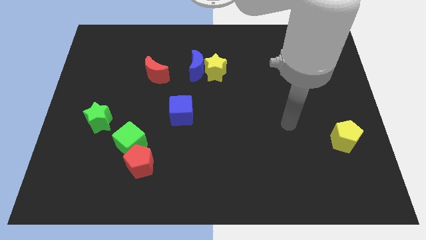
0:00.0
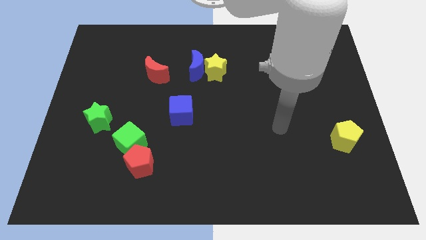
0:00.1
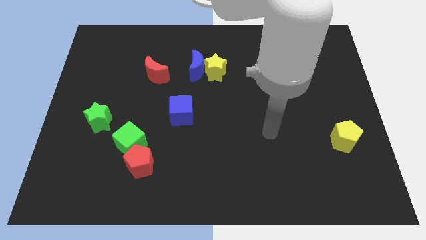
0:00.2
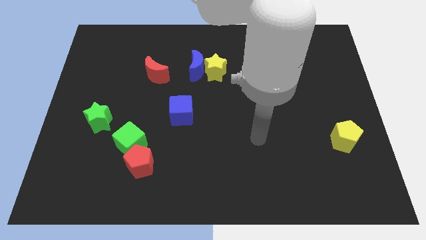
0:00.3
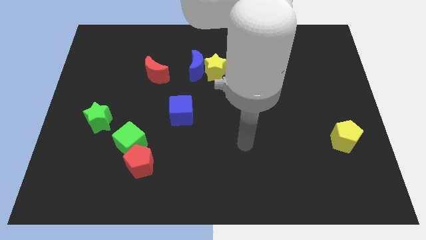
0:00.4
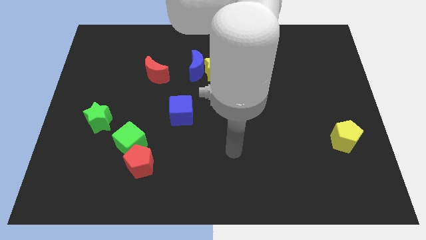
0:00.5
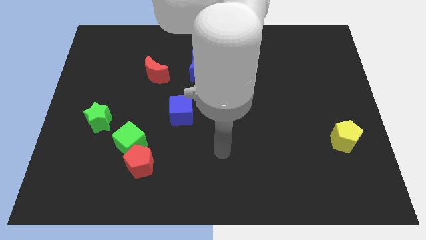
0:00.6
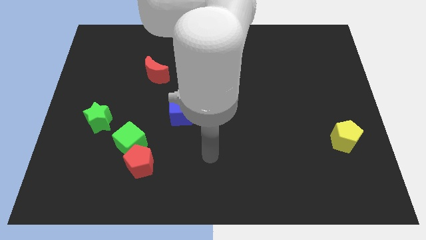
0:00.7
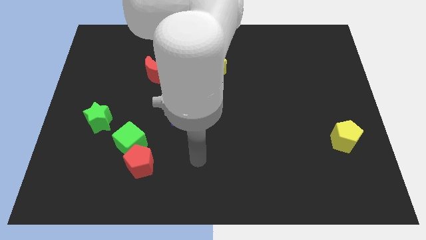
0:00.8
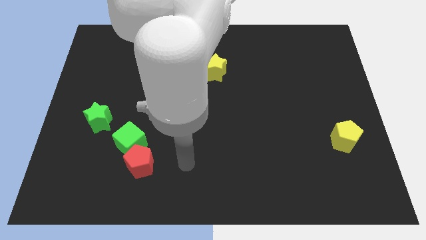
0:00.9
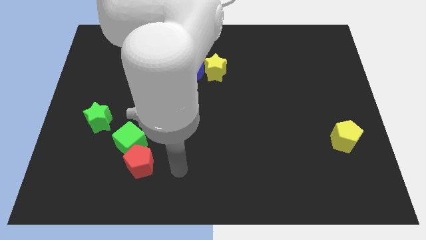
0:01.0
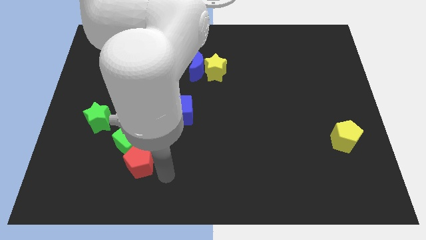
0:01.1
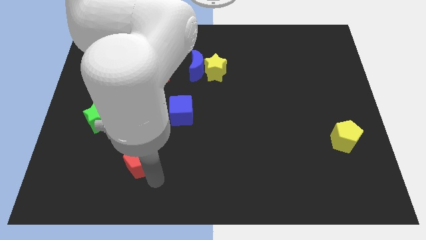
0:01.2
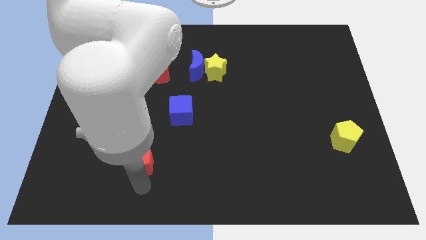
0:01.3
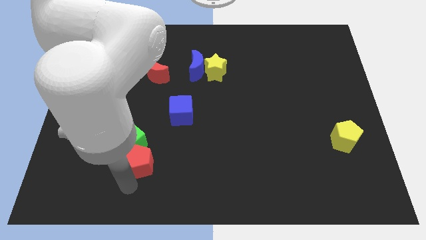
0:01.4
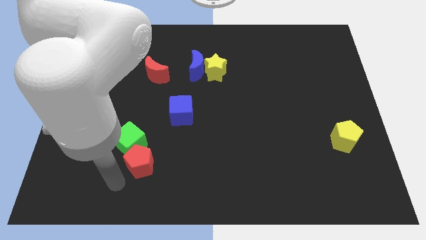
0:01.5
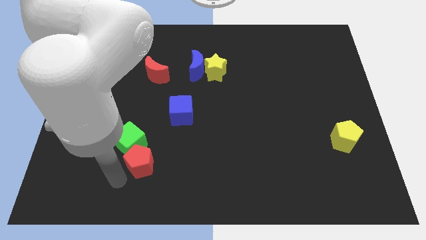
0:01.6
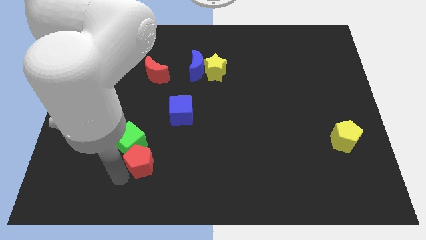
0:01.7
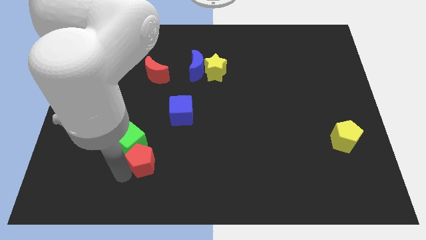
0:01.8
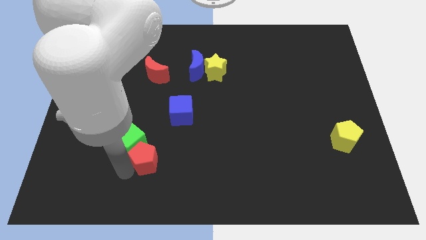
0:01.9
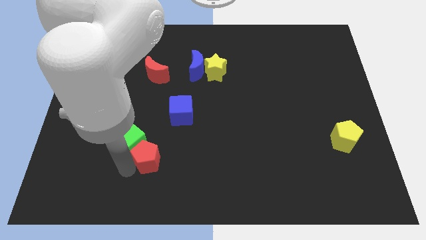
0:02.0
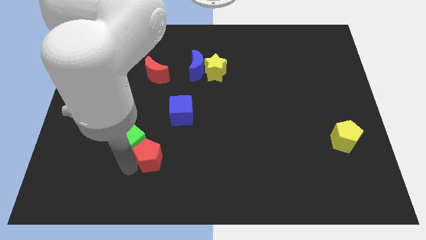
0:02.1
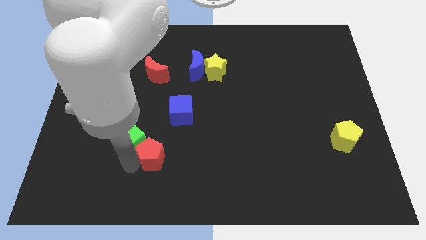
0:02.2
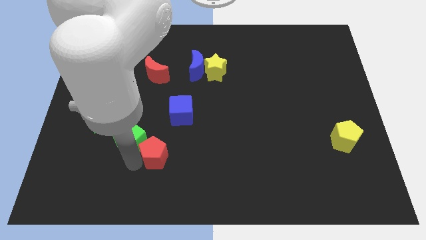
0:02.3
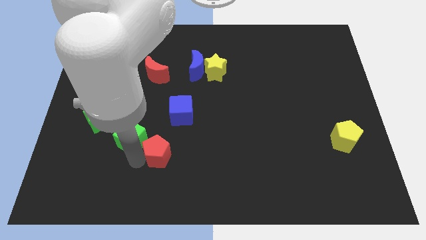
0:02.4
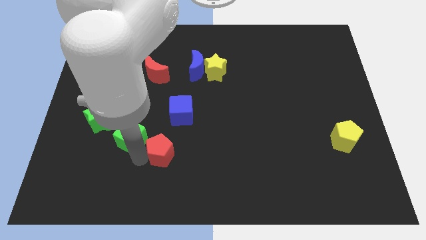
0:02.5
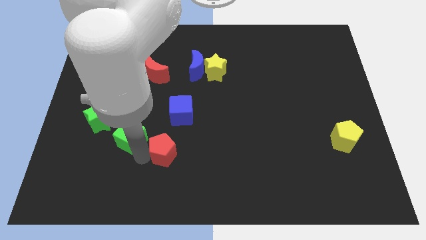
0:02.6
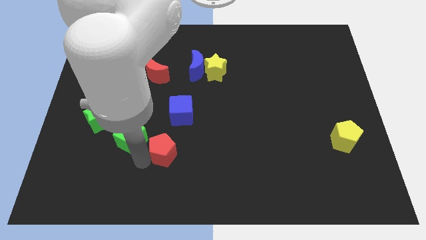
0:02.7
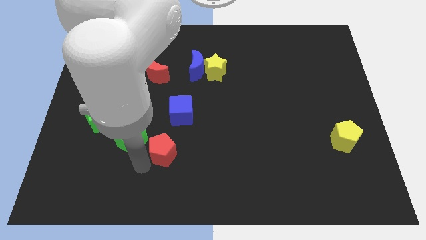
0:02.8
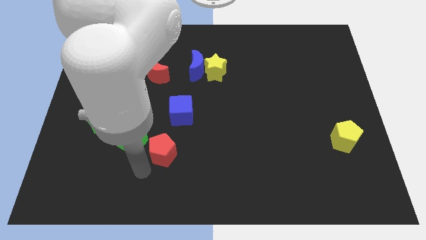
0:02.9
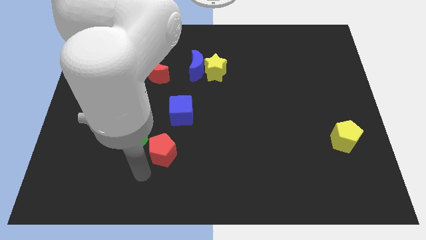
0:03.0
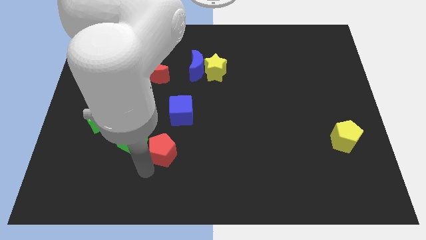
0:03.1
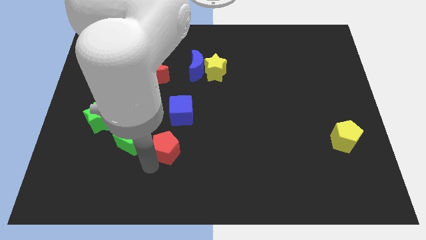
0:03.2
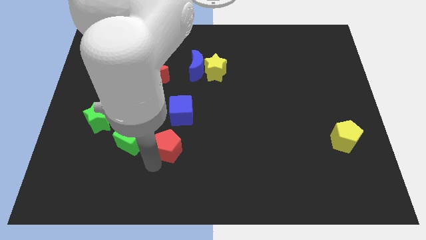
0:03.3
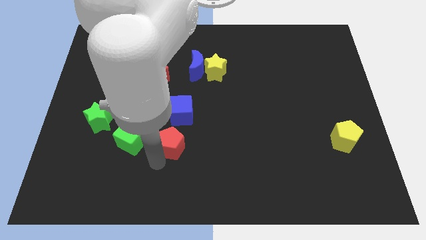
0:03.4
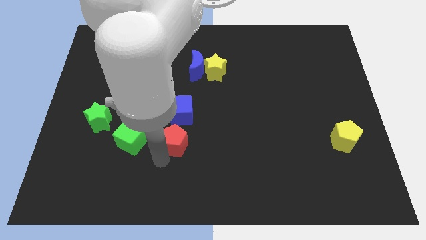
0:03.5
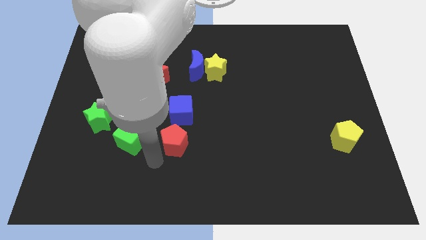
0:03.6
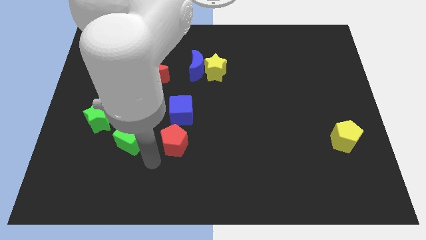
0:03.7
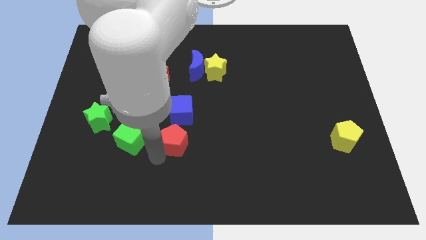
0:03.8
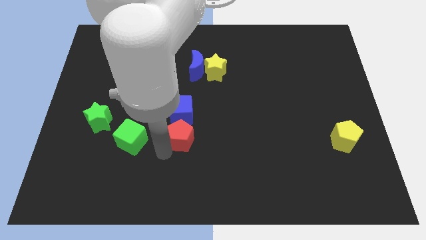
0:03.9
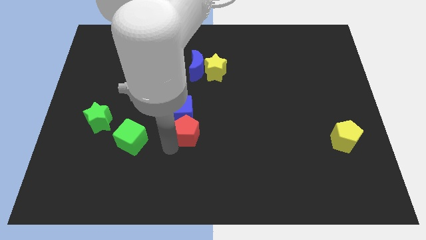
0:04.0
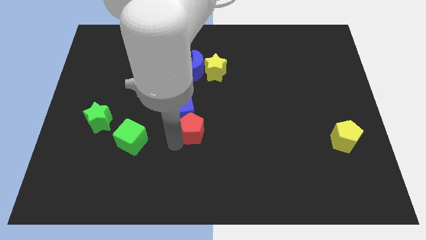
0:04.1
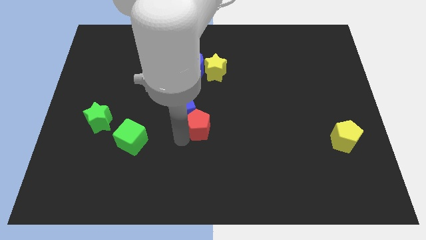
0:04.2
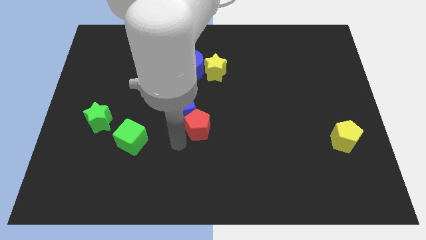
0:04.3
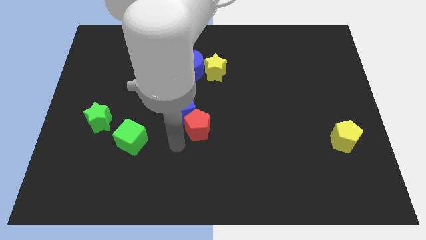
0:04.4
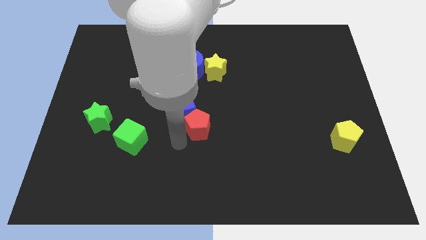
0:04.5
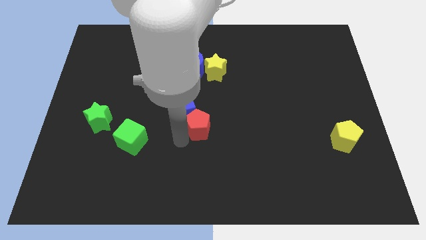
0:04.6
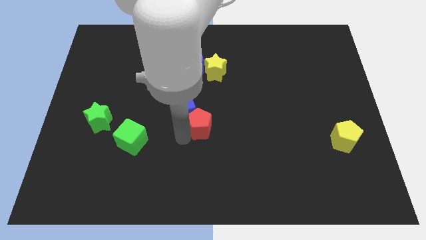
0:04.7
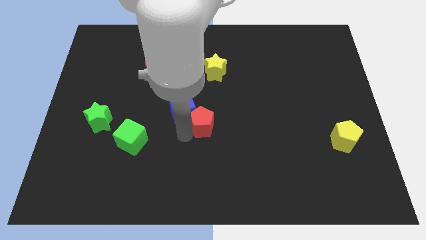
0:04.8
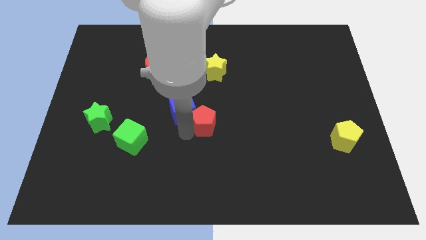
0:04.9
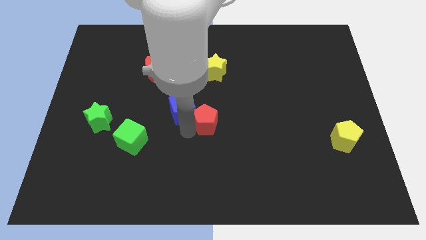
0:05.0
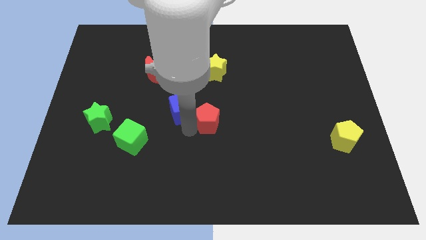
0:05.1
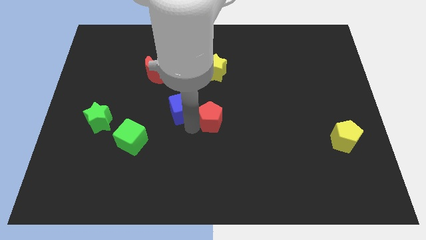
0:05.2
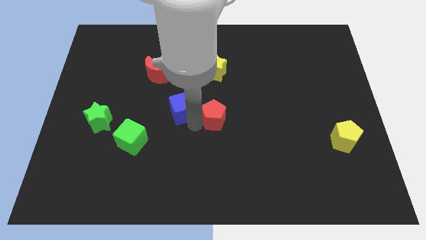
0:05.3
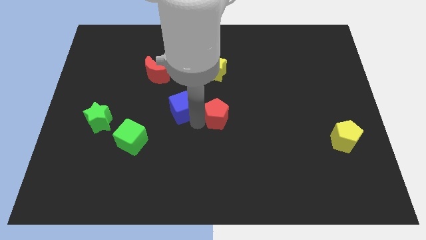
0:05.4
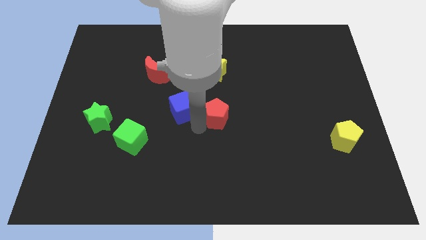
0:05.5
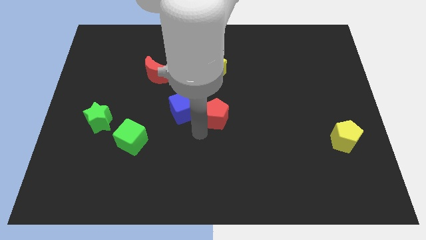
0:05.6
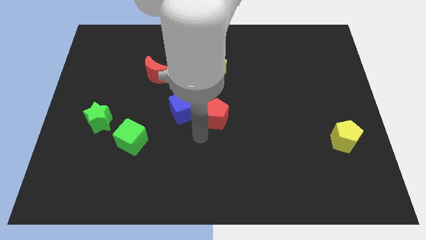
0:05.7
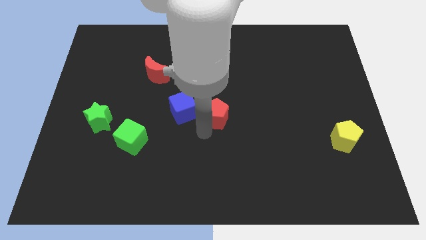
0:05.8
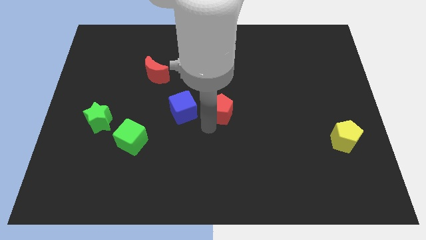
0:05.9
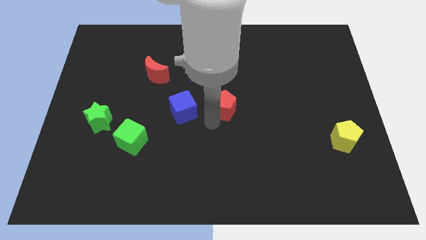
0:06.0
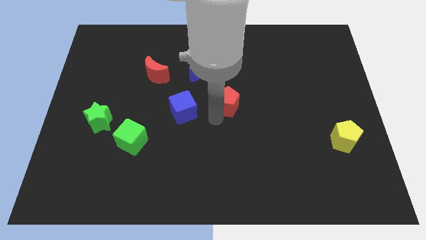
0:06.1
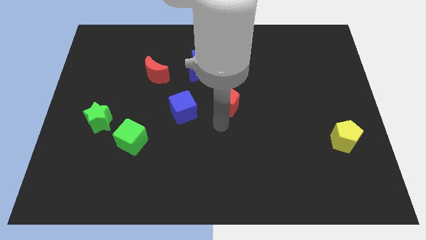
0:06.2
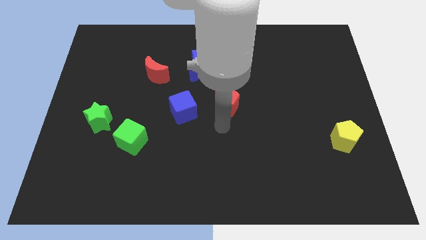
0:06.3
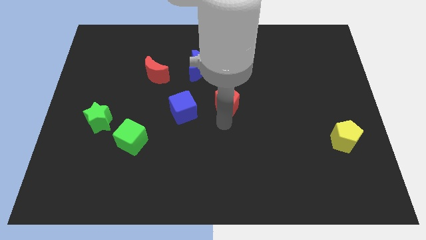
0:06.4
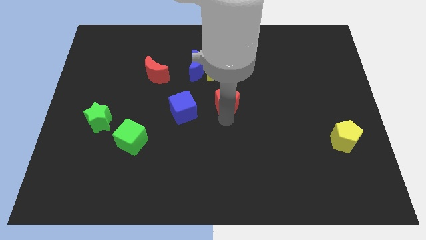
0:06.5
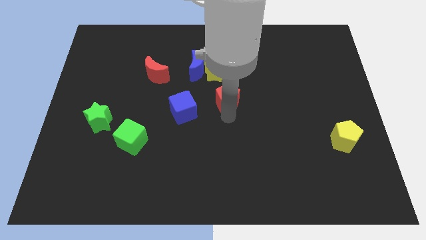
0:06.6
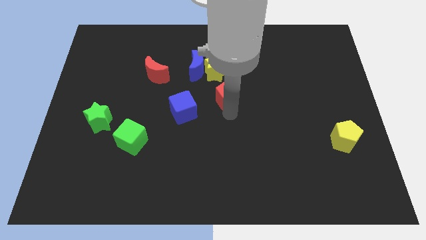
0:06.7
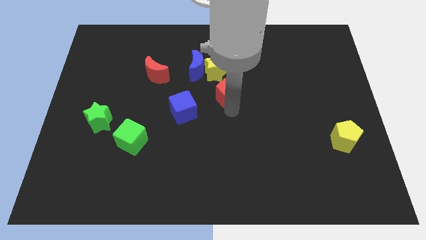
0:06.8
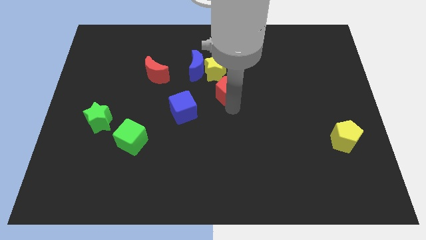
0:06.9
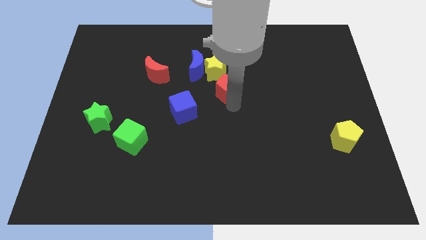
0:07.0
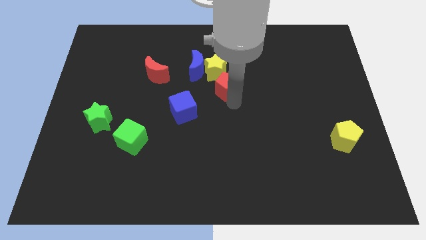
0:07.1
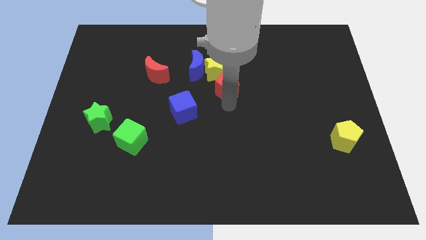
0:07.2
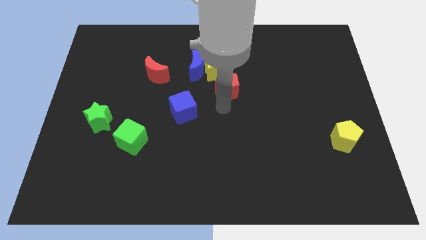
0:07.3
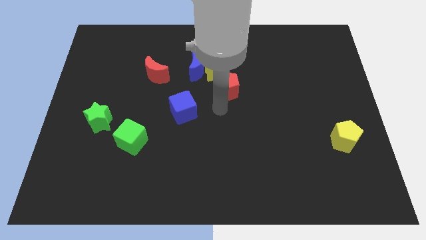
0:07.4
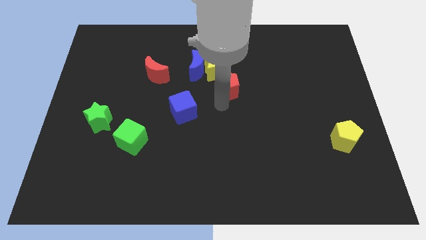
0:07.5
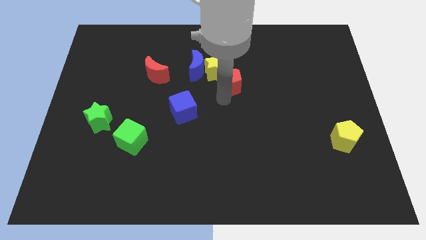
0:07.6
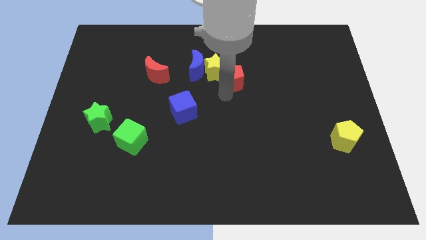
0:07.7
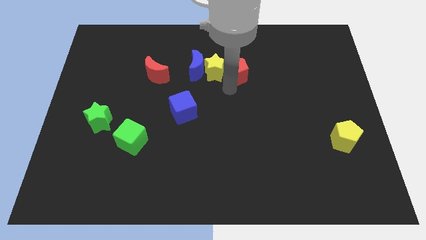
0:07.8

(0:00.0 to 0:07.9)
slide the red pentagon to the top right of the yellow star
